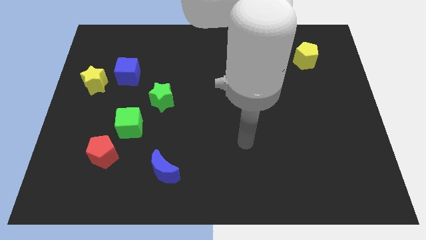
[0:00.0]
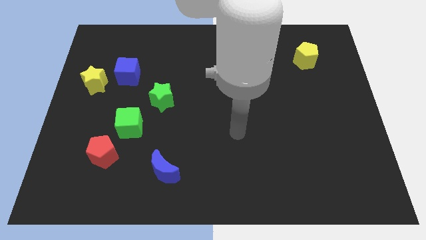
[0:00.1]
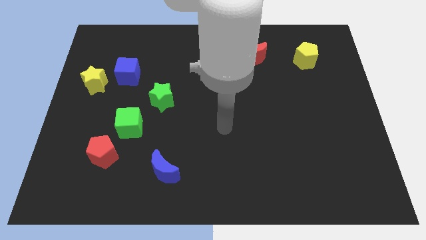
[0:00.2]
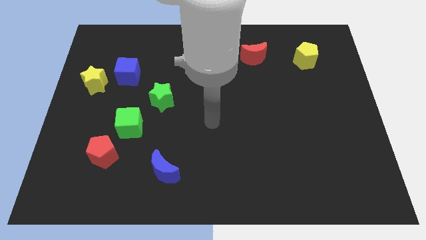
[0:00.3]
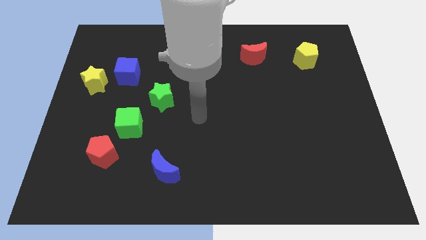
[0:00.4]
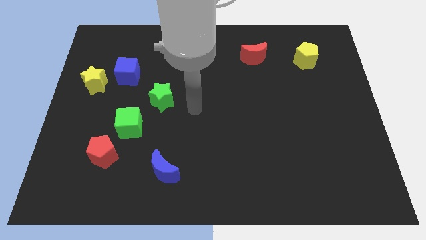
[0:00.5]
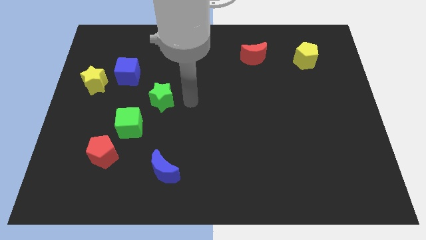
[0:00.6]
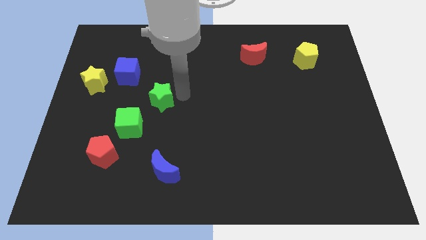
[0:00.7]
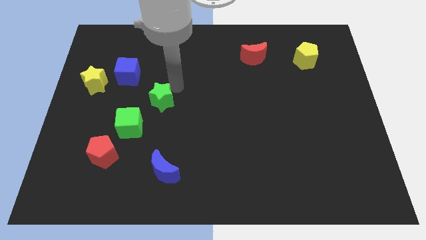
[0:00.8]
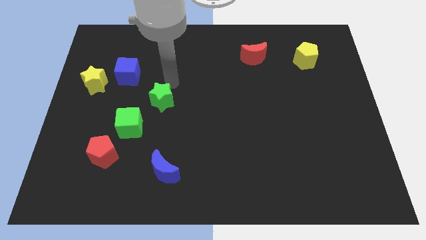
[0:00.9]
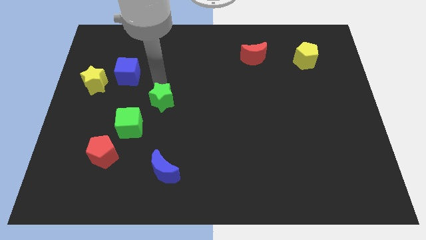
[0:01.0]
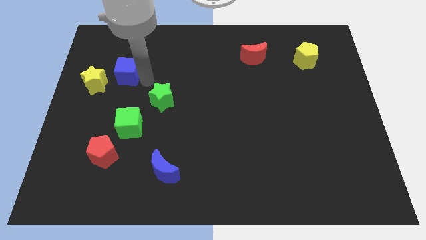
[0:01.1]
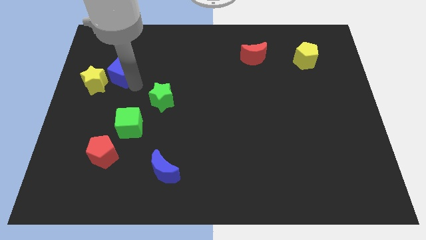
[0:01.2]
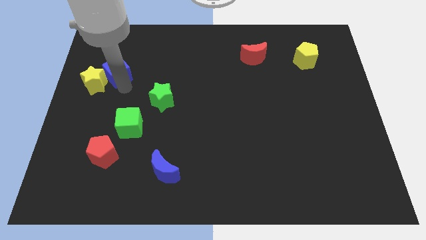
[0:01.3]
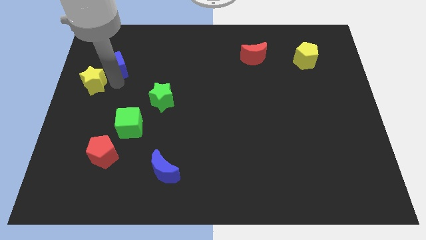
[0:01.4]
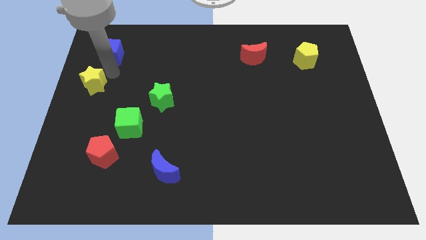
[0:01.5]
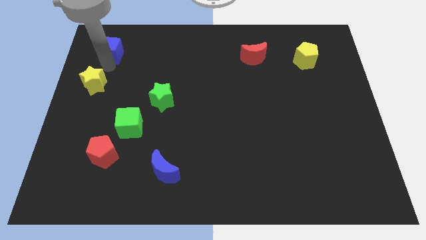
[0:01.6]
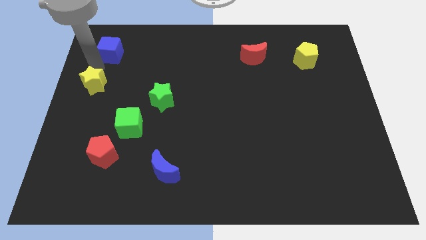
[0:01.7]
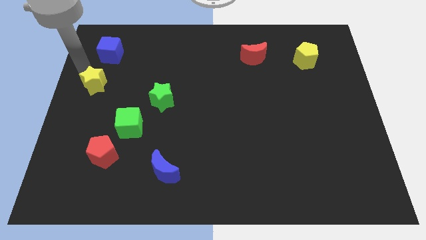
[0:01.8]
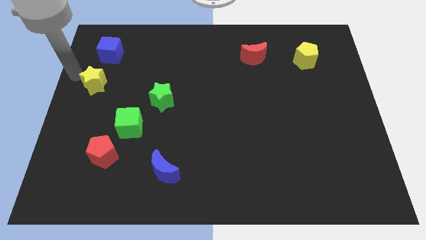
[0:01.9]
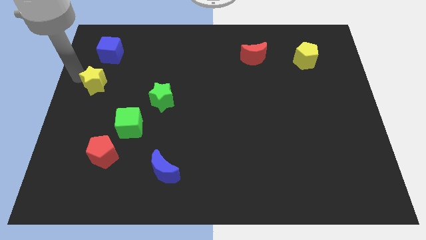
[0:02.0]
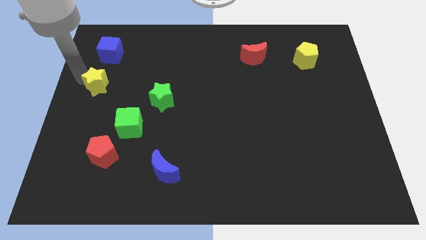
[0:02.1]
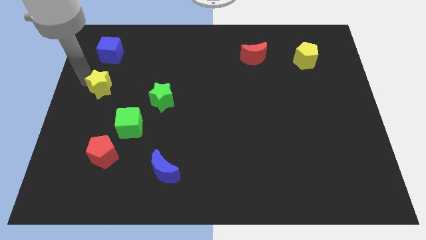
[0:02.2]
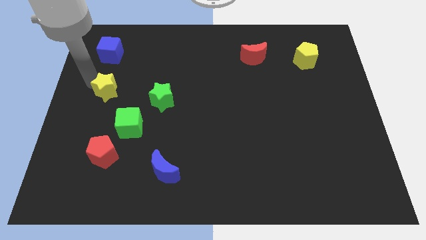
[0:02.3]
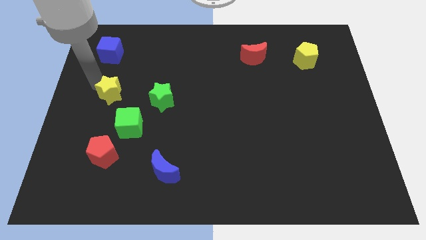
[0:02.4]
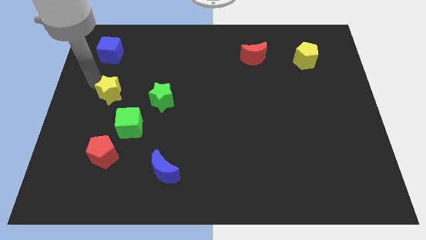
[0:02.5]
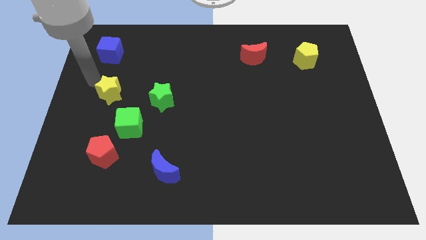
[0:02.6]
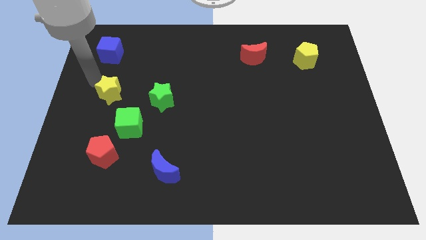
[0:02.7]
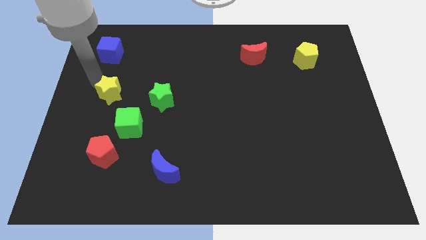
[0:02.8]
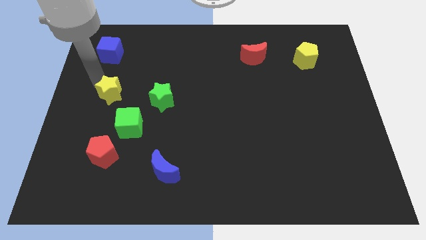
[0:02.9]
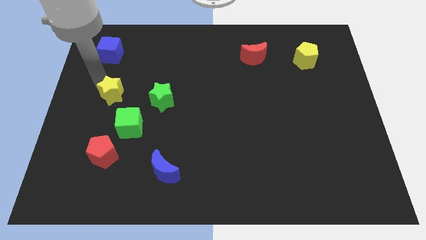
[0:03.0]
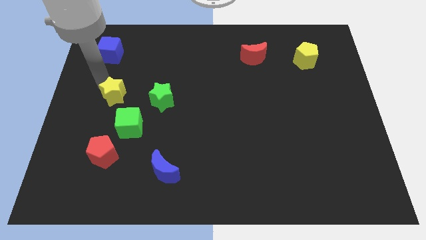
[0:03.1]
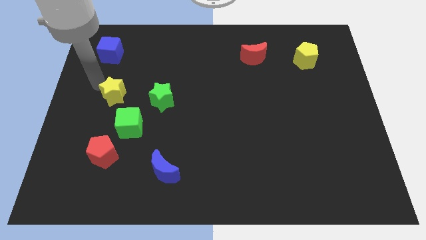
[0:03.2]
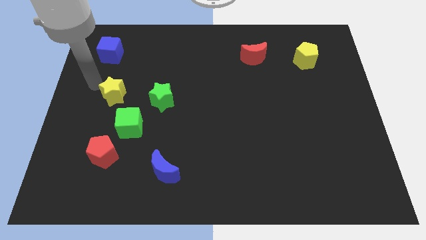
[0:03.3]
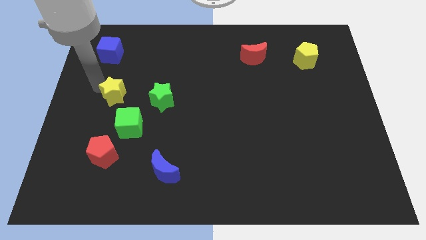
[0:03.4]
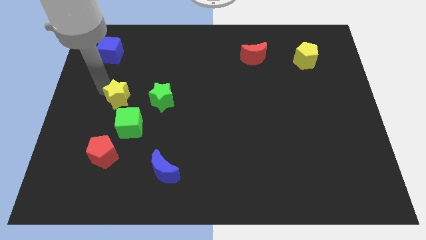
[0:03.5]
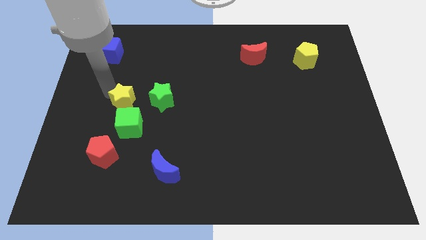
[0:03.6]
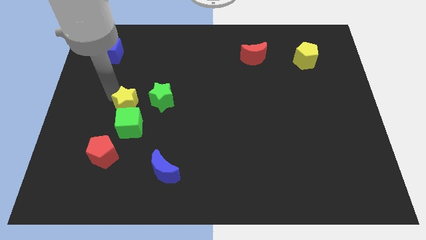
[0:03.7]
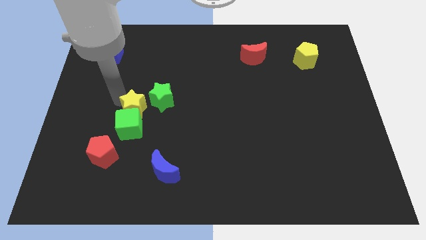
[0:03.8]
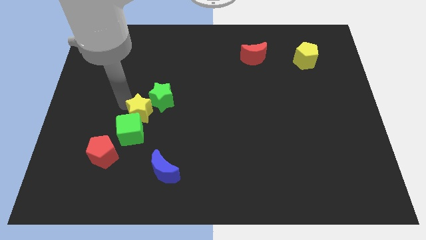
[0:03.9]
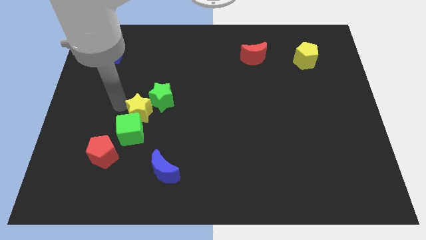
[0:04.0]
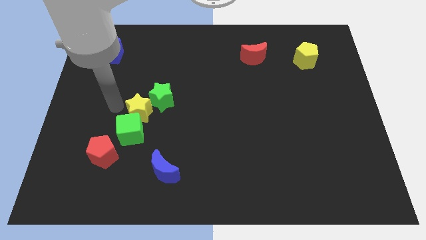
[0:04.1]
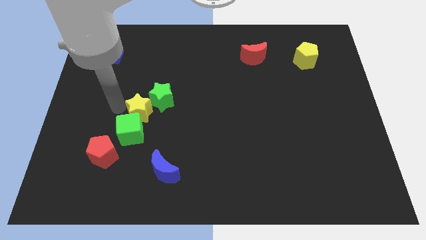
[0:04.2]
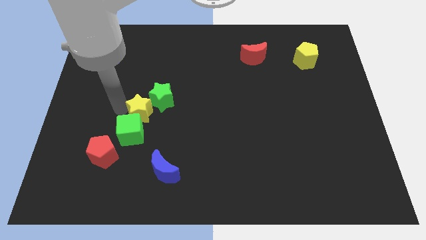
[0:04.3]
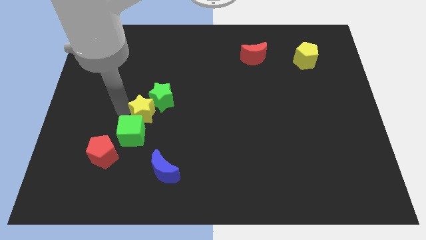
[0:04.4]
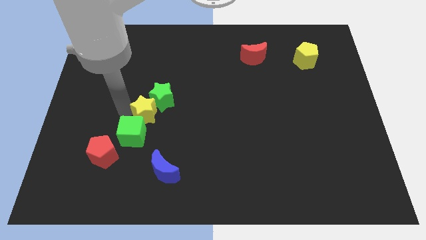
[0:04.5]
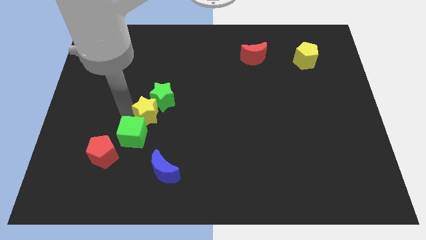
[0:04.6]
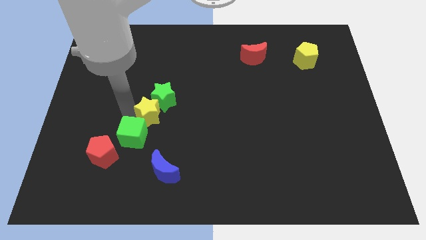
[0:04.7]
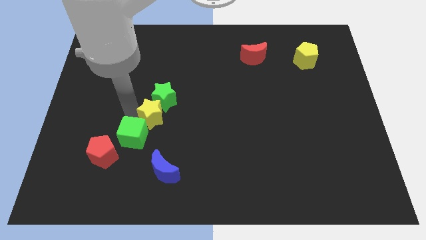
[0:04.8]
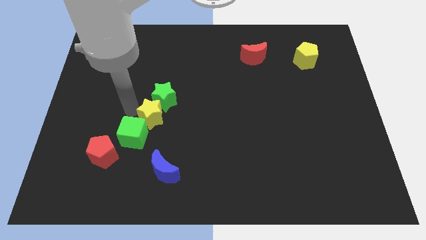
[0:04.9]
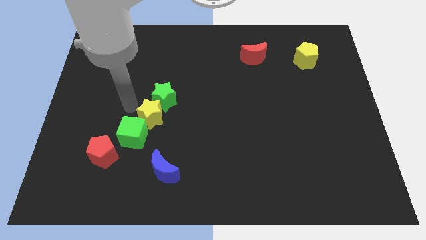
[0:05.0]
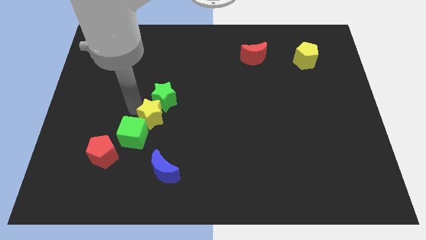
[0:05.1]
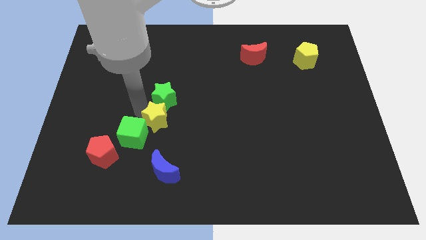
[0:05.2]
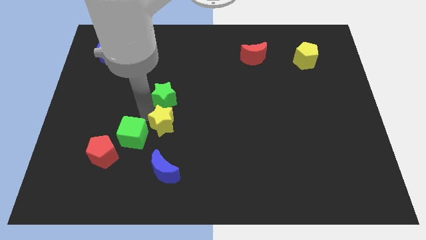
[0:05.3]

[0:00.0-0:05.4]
move the yellow star downwards and right diagonally

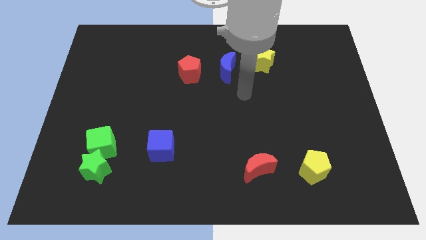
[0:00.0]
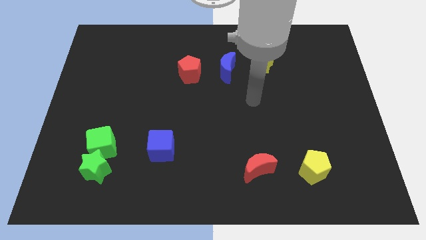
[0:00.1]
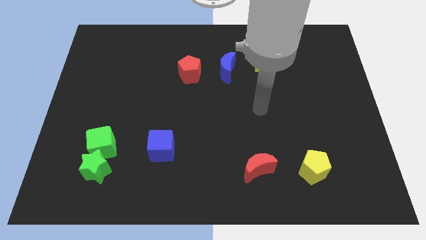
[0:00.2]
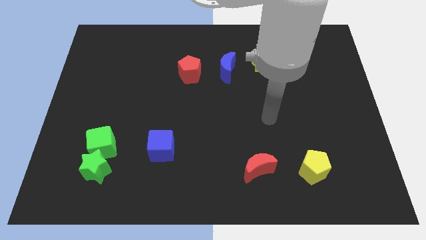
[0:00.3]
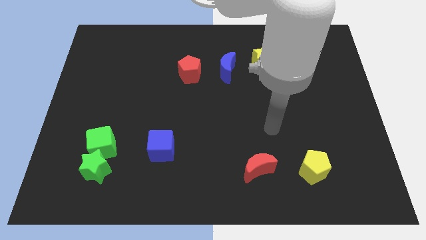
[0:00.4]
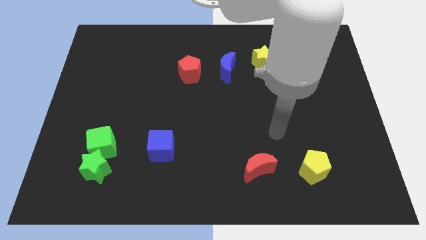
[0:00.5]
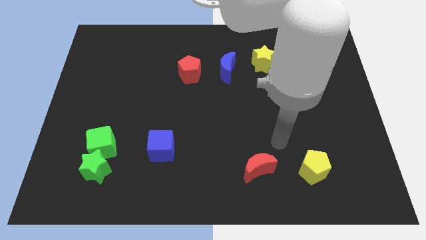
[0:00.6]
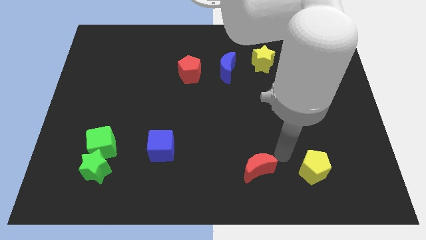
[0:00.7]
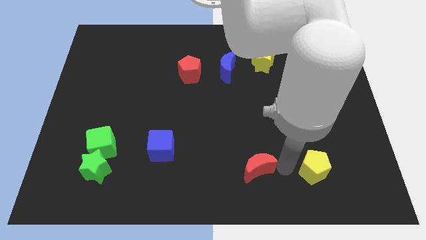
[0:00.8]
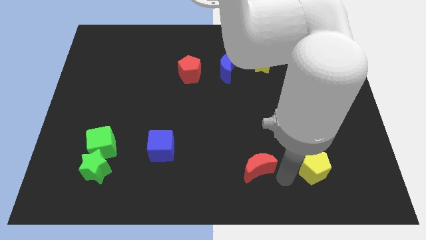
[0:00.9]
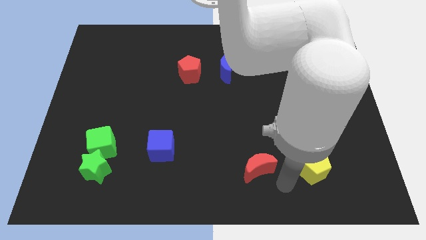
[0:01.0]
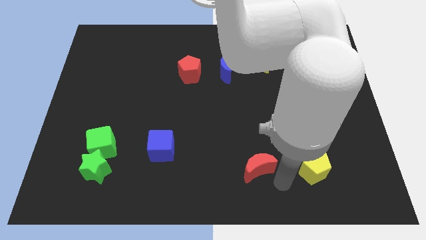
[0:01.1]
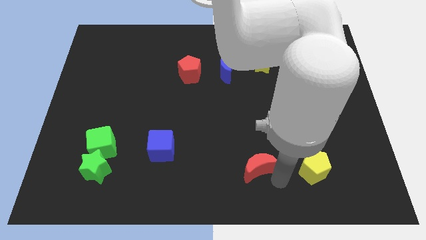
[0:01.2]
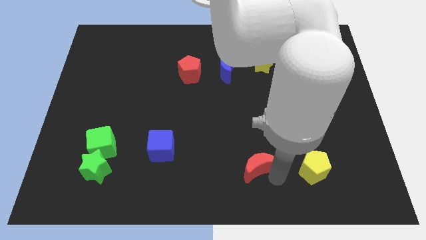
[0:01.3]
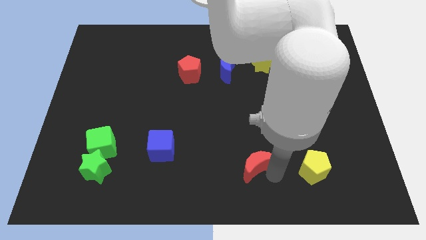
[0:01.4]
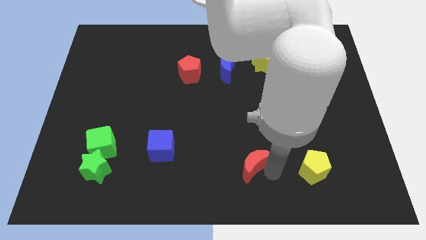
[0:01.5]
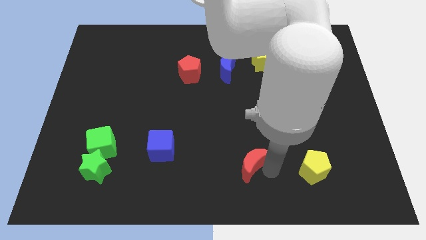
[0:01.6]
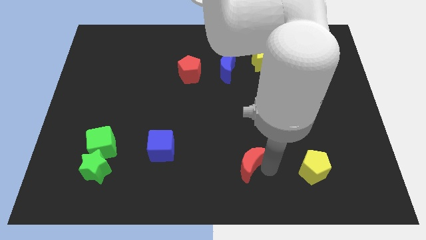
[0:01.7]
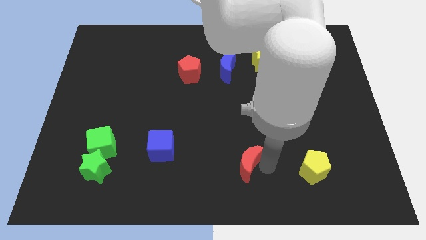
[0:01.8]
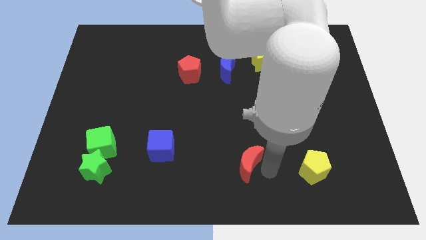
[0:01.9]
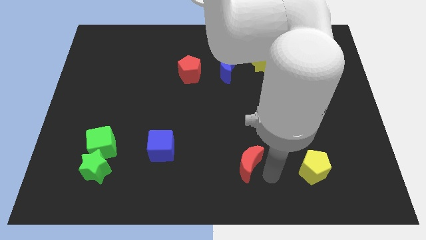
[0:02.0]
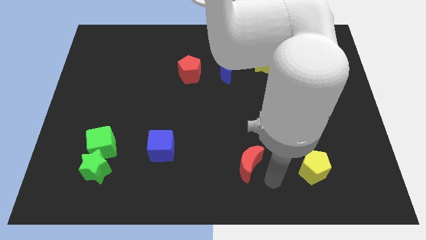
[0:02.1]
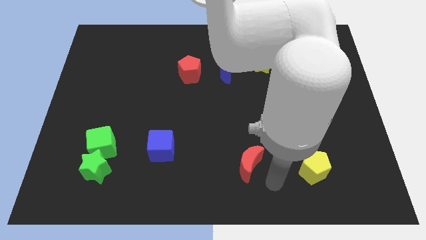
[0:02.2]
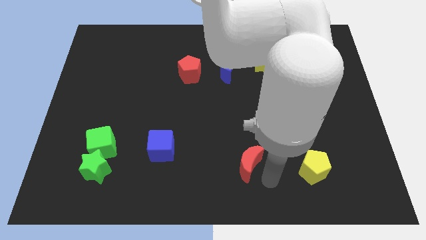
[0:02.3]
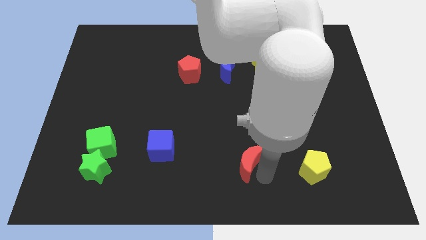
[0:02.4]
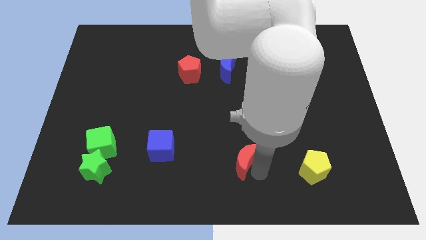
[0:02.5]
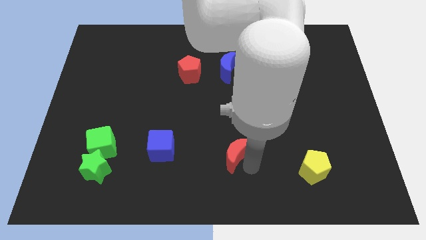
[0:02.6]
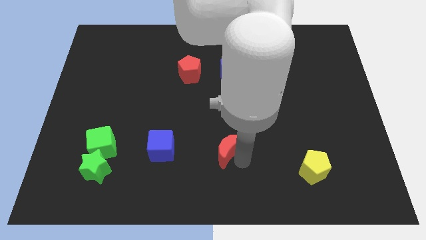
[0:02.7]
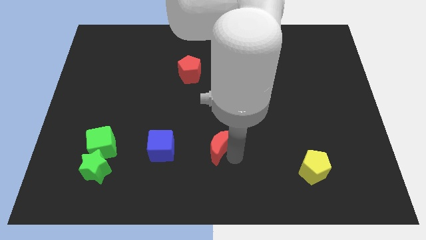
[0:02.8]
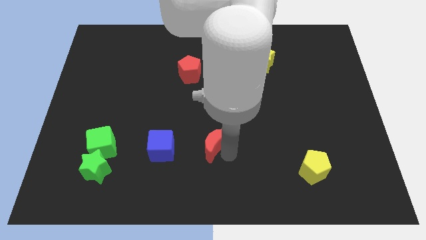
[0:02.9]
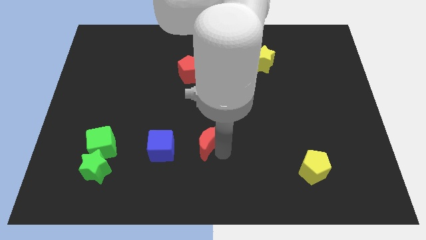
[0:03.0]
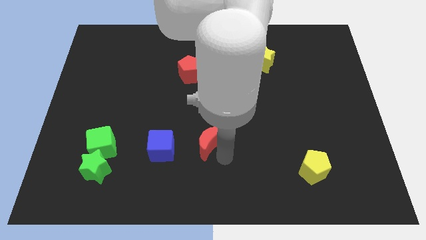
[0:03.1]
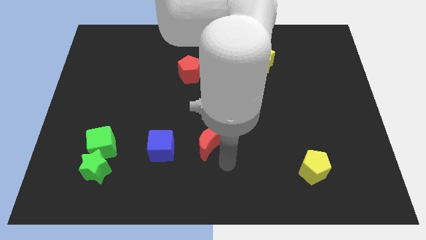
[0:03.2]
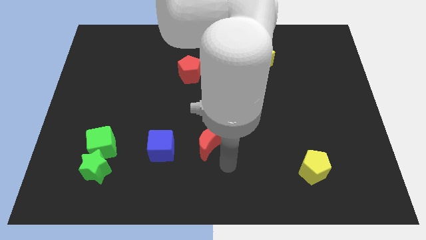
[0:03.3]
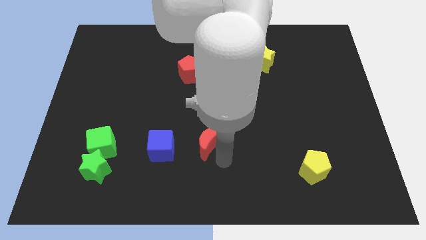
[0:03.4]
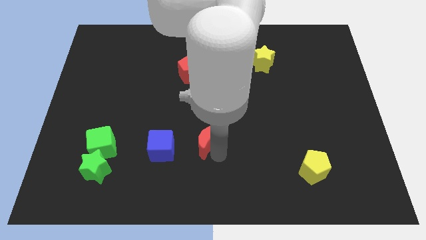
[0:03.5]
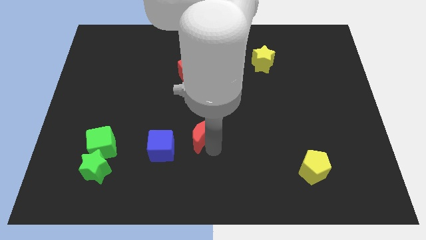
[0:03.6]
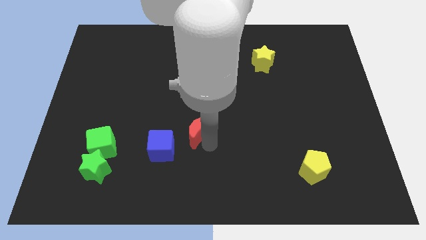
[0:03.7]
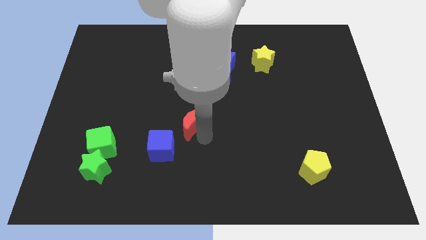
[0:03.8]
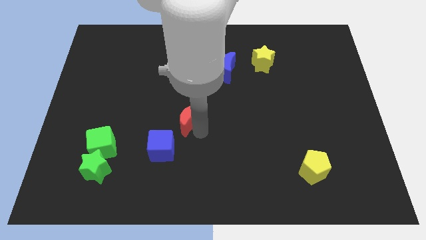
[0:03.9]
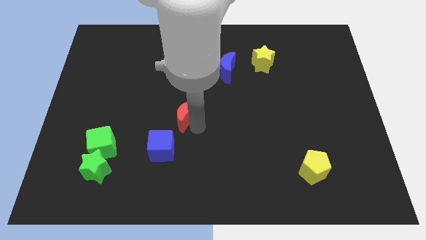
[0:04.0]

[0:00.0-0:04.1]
slide the red moon diagonally upwards and left
